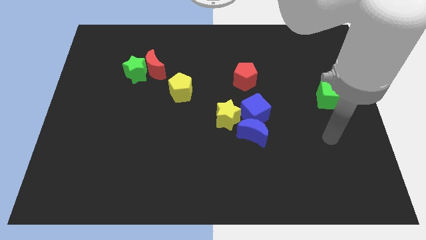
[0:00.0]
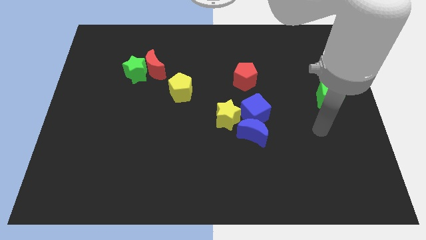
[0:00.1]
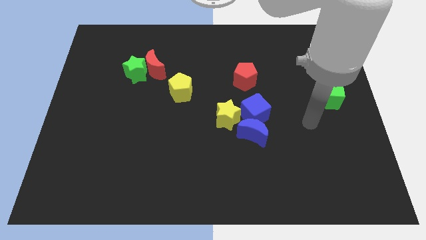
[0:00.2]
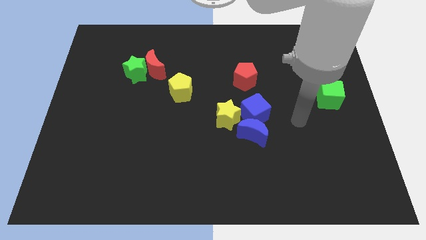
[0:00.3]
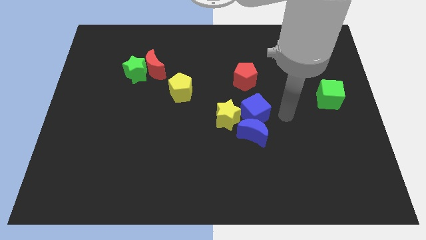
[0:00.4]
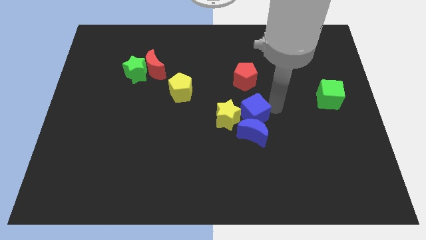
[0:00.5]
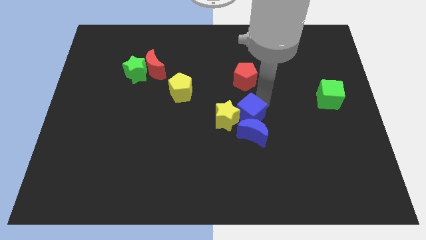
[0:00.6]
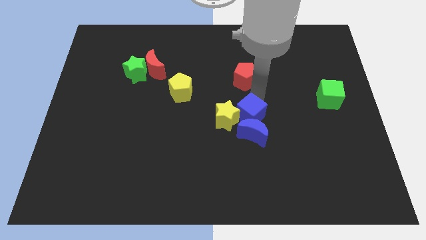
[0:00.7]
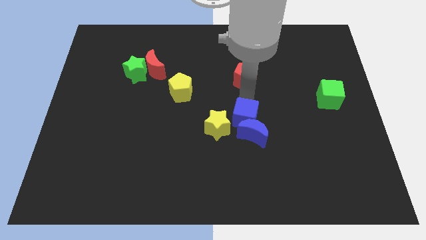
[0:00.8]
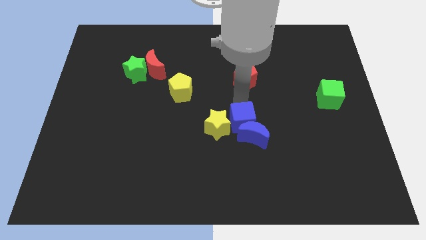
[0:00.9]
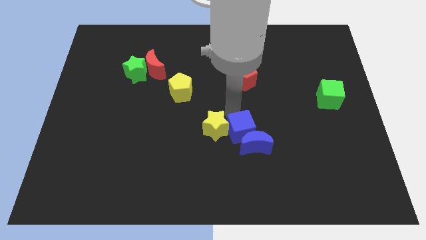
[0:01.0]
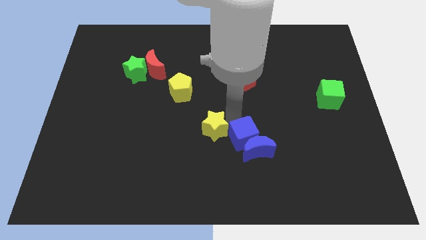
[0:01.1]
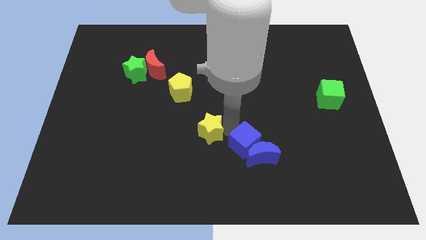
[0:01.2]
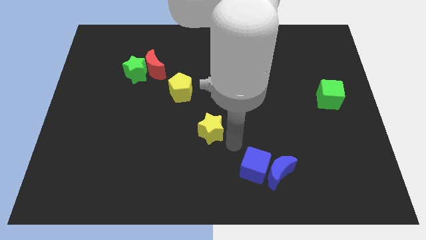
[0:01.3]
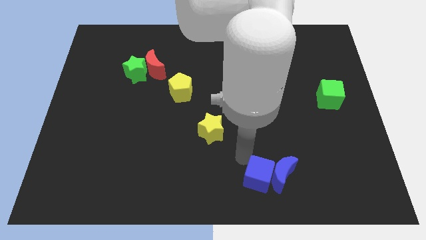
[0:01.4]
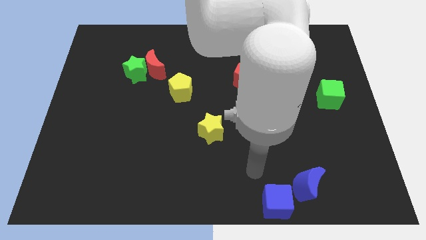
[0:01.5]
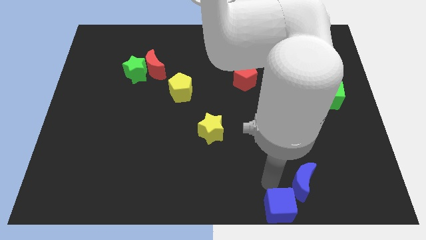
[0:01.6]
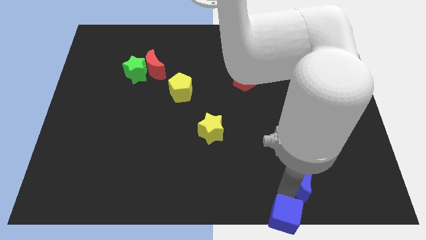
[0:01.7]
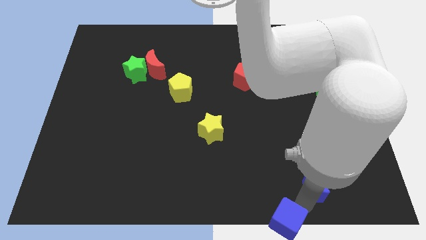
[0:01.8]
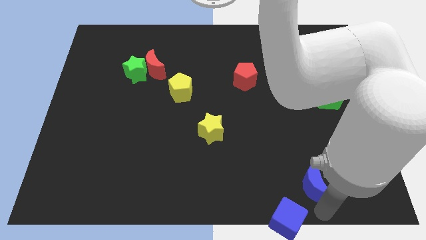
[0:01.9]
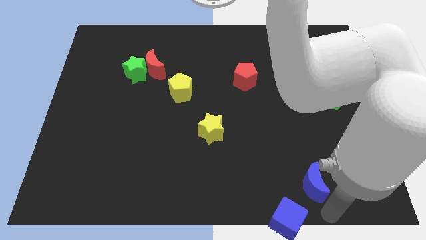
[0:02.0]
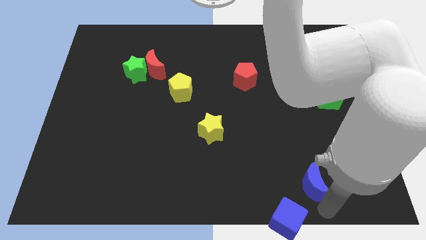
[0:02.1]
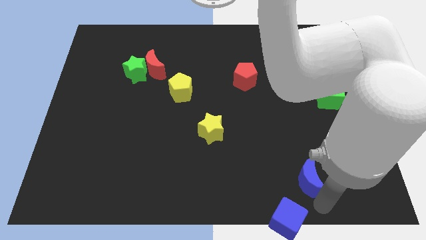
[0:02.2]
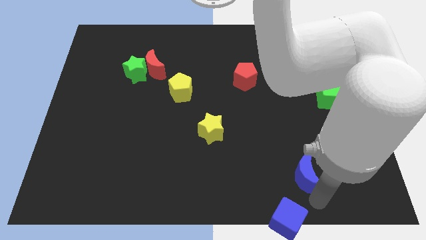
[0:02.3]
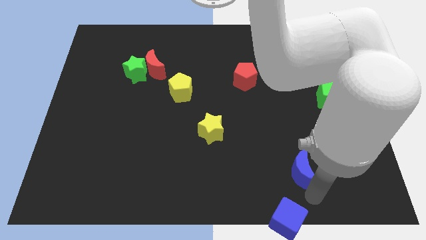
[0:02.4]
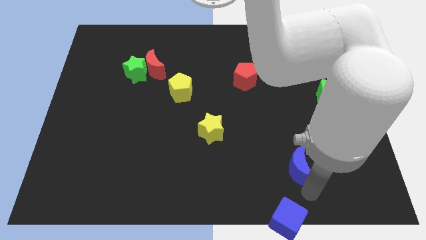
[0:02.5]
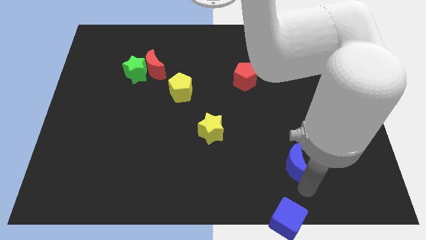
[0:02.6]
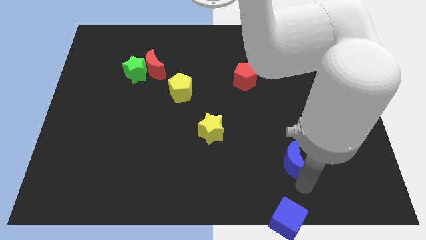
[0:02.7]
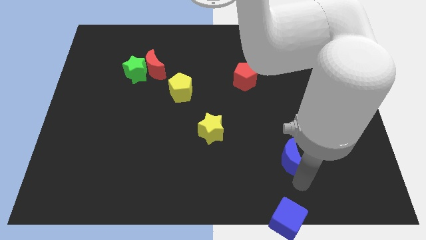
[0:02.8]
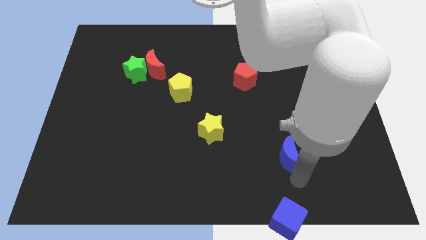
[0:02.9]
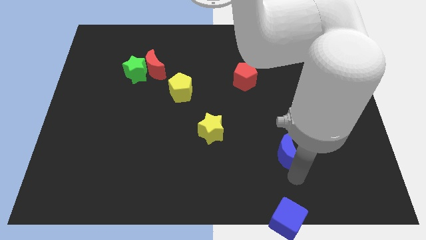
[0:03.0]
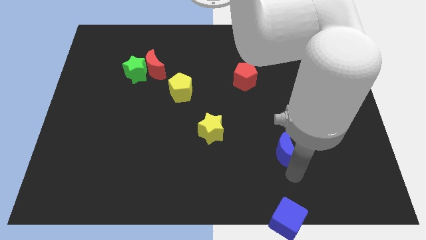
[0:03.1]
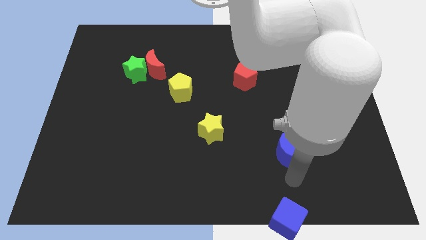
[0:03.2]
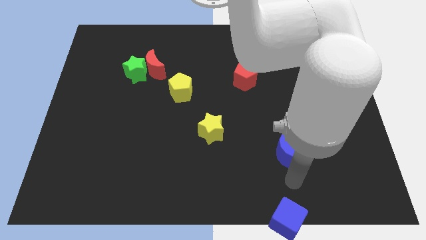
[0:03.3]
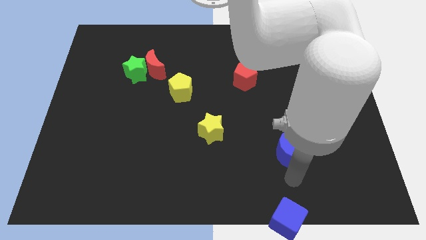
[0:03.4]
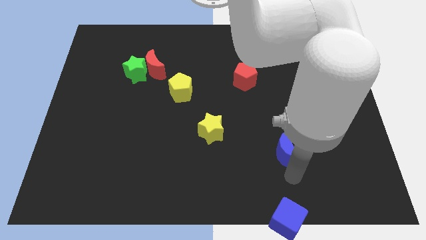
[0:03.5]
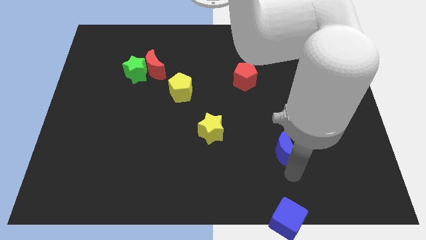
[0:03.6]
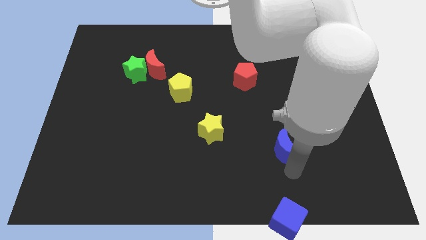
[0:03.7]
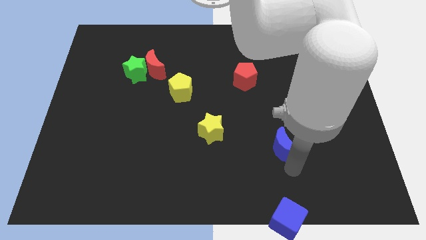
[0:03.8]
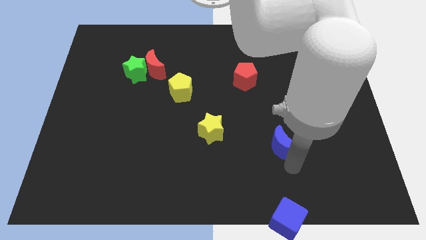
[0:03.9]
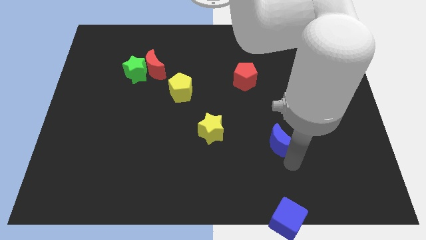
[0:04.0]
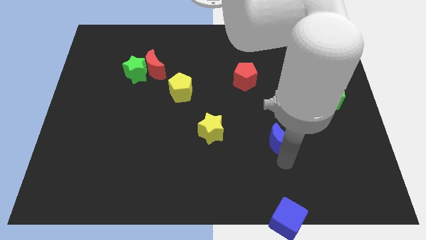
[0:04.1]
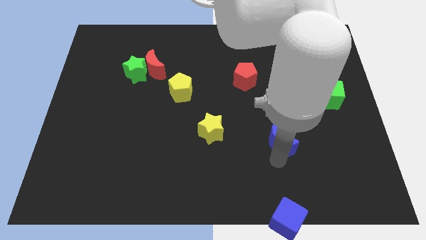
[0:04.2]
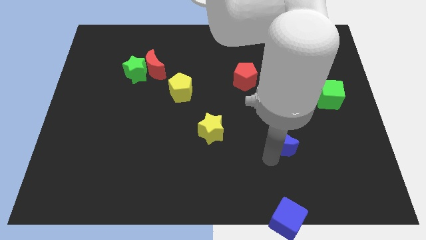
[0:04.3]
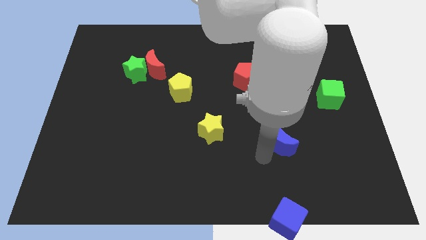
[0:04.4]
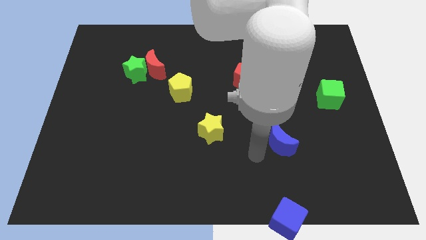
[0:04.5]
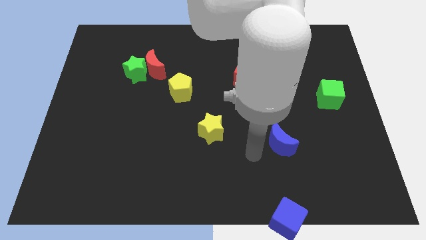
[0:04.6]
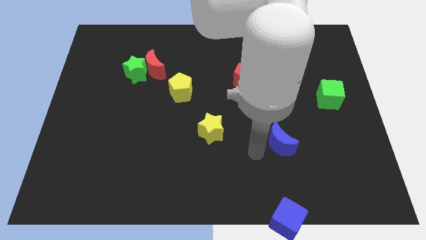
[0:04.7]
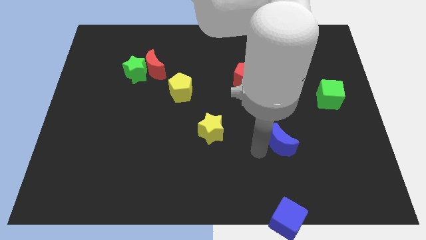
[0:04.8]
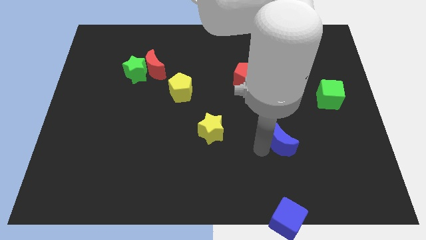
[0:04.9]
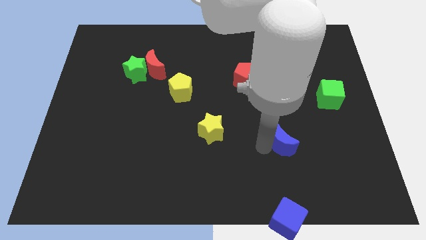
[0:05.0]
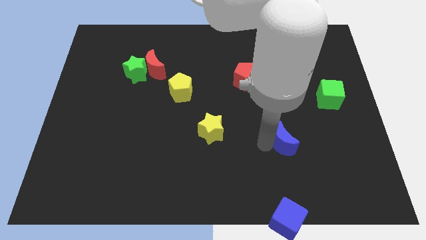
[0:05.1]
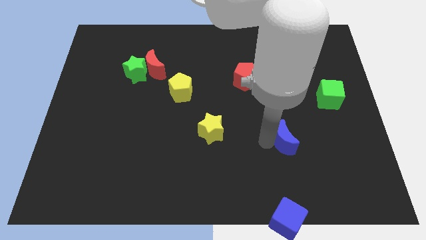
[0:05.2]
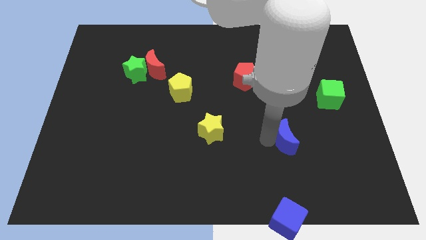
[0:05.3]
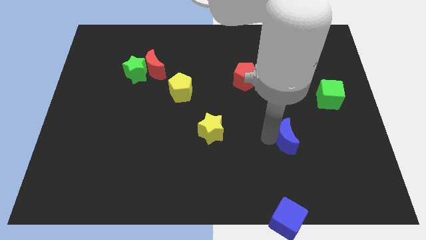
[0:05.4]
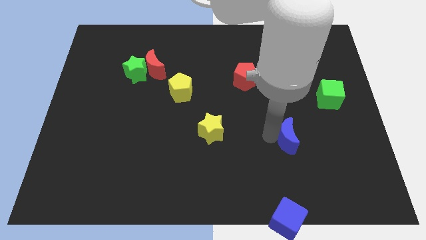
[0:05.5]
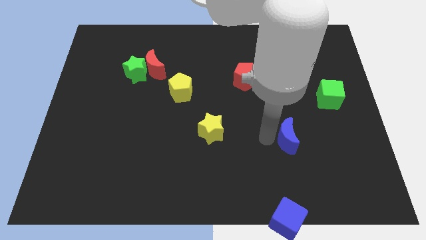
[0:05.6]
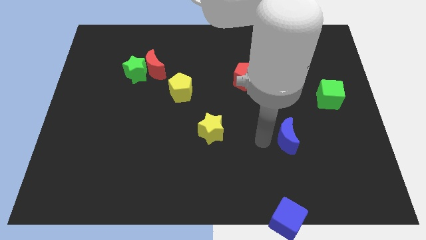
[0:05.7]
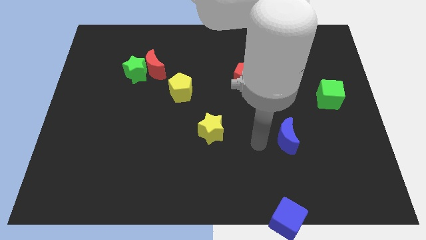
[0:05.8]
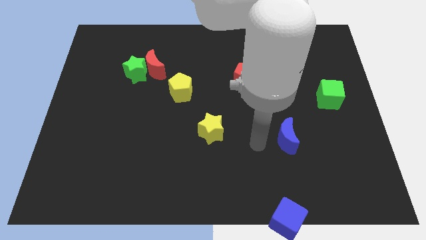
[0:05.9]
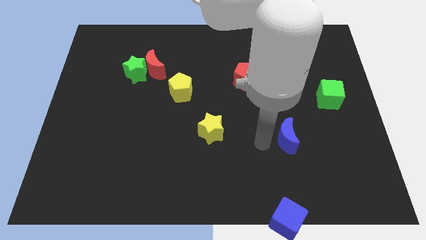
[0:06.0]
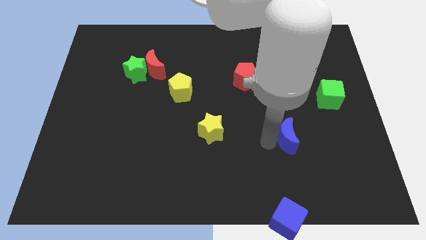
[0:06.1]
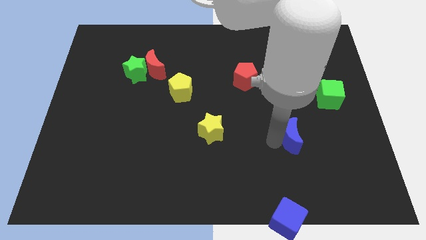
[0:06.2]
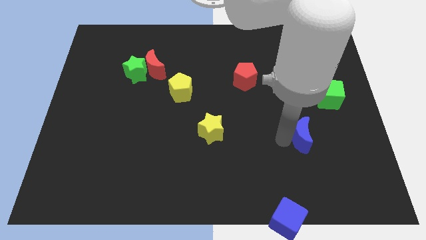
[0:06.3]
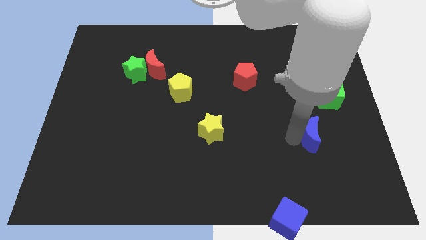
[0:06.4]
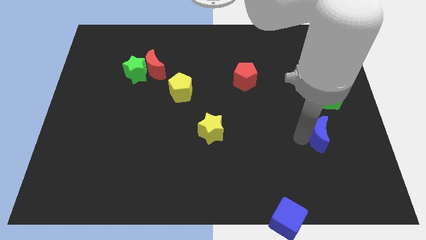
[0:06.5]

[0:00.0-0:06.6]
put the blue moon to the bottom of the green cube

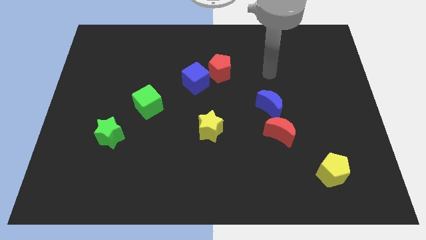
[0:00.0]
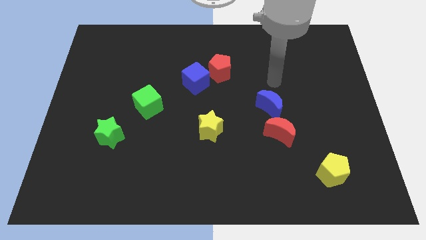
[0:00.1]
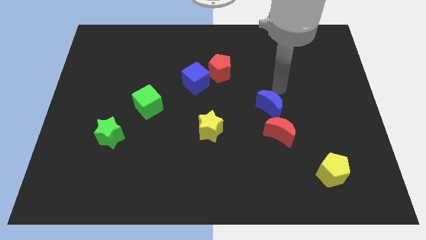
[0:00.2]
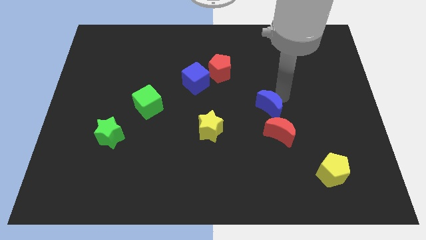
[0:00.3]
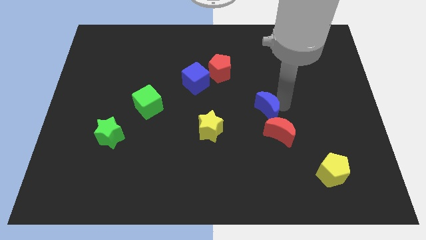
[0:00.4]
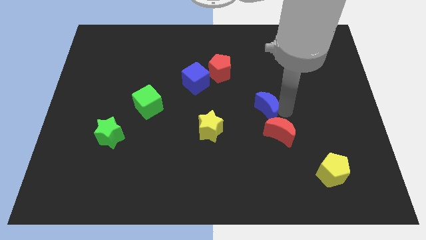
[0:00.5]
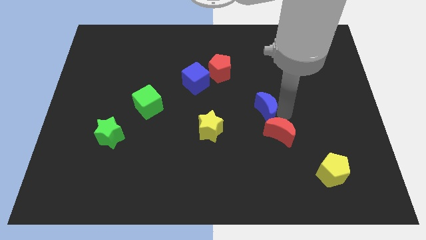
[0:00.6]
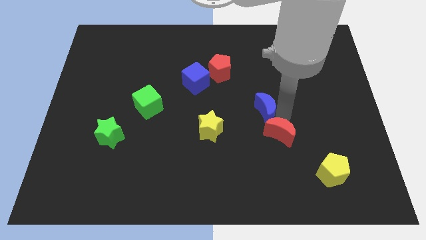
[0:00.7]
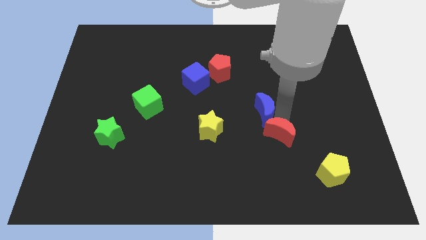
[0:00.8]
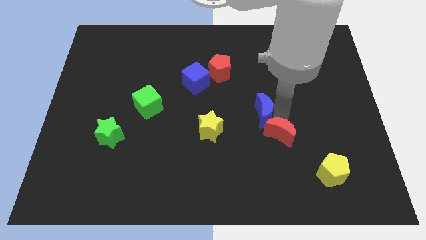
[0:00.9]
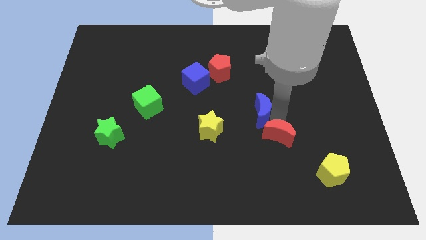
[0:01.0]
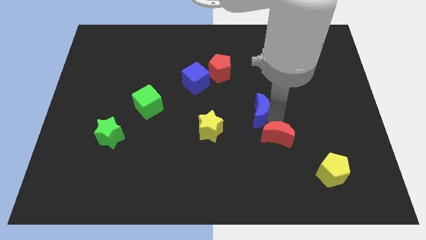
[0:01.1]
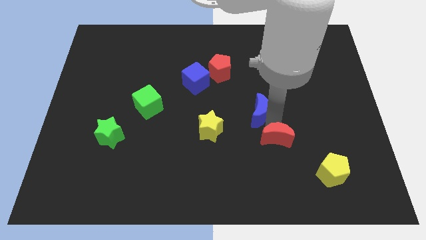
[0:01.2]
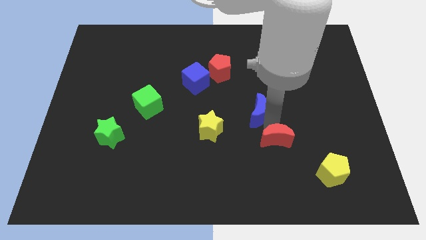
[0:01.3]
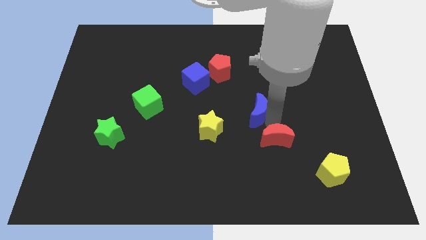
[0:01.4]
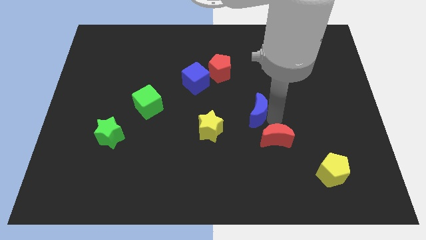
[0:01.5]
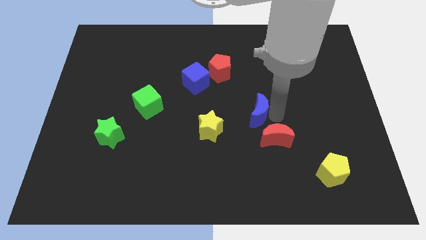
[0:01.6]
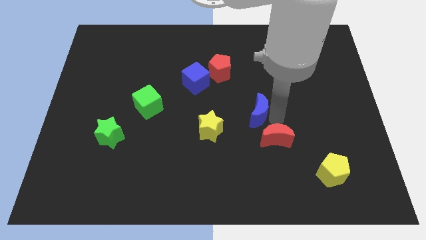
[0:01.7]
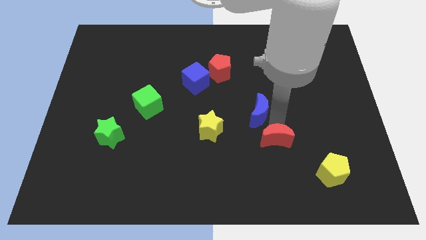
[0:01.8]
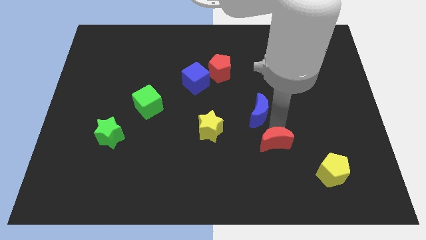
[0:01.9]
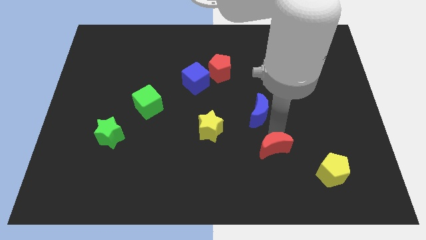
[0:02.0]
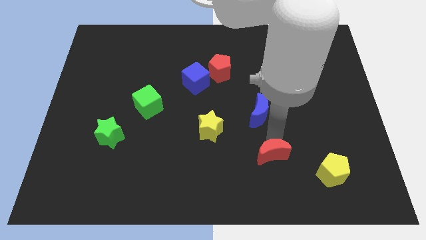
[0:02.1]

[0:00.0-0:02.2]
put the red moon to the left side of the yellow pentagon
